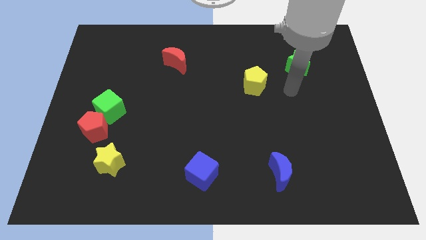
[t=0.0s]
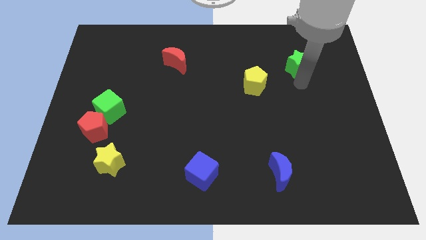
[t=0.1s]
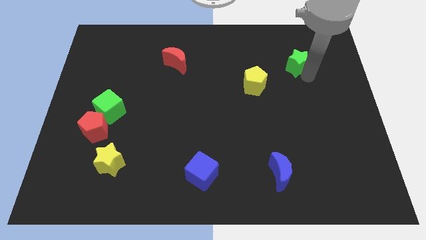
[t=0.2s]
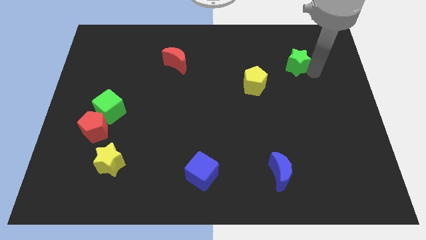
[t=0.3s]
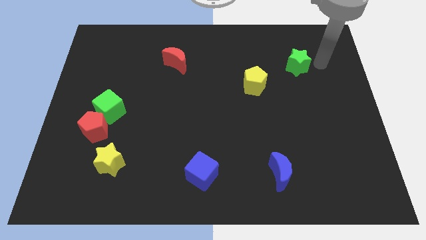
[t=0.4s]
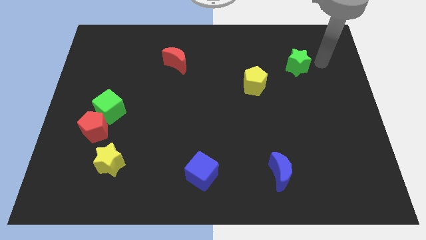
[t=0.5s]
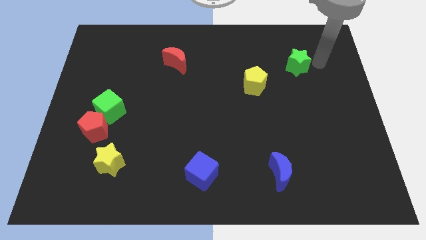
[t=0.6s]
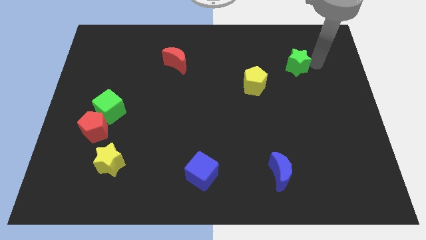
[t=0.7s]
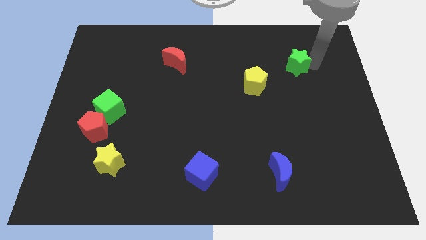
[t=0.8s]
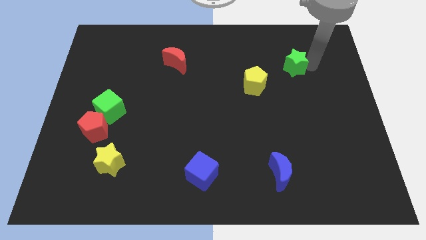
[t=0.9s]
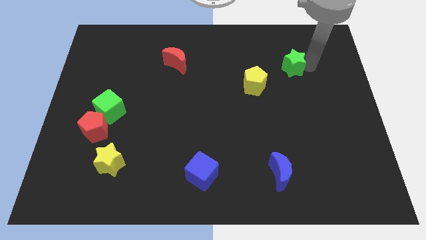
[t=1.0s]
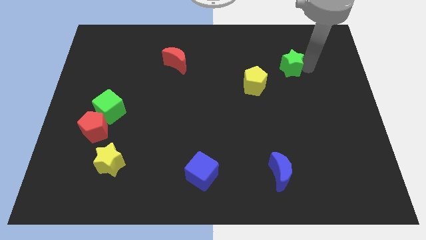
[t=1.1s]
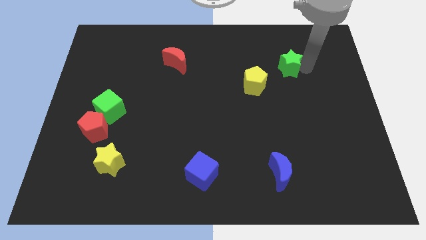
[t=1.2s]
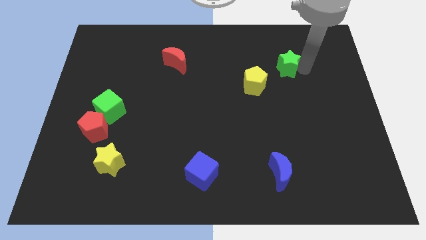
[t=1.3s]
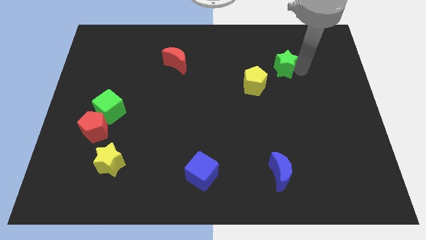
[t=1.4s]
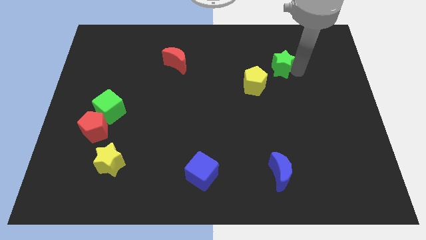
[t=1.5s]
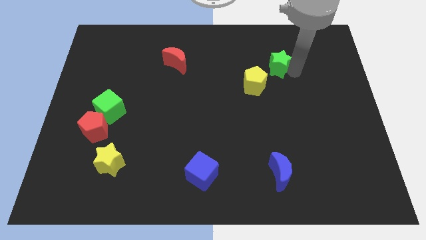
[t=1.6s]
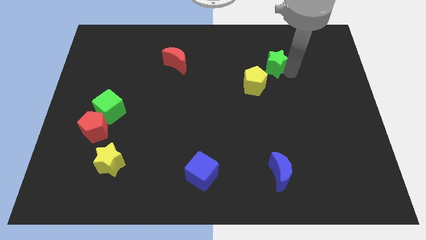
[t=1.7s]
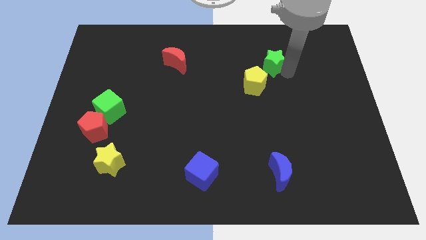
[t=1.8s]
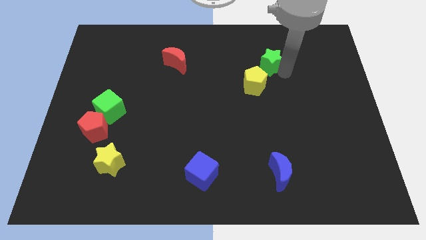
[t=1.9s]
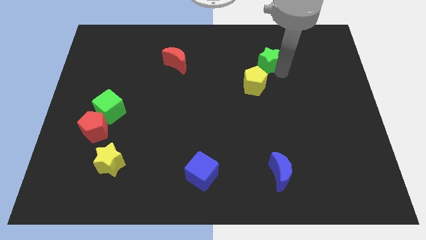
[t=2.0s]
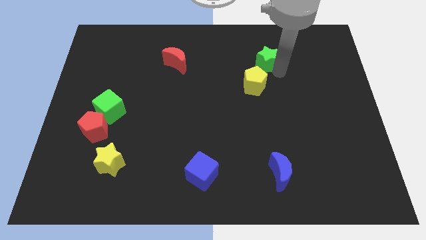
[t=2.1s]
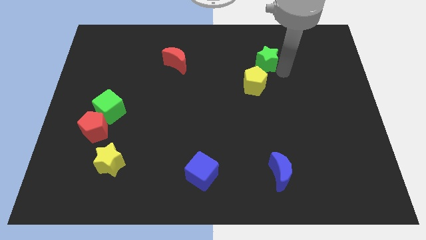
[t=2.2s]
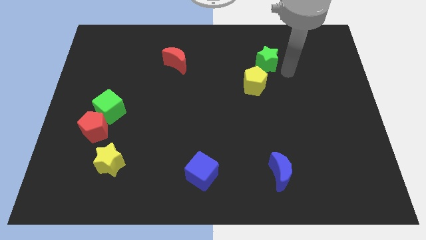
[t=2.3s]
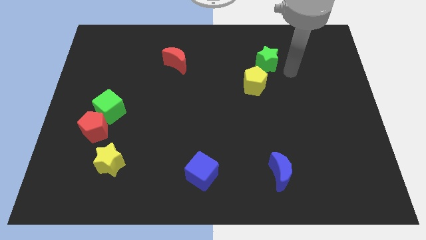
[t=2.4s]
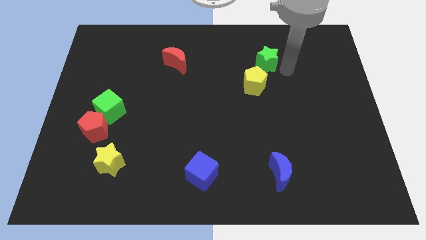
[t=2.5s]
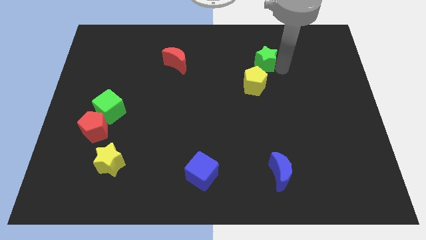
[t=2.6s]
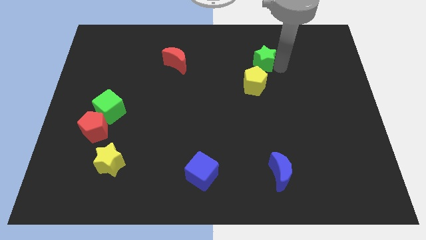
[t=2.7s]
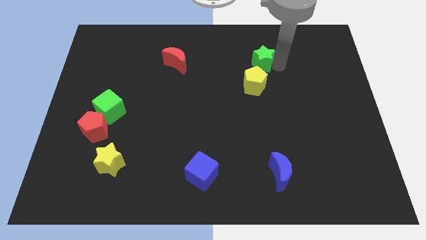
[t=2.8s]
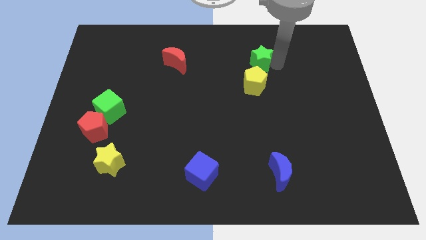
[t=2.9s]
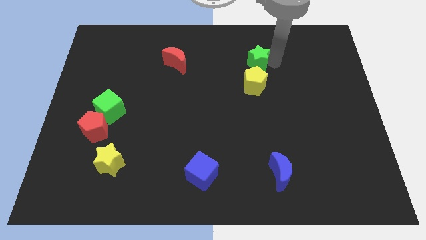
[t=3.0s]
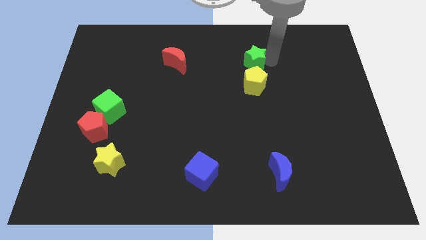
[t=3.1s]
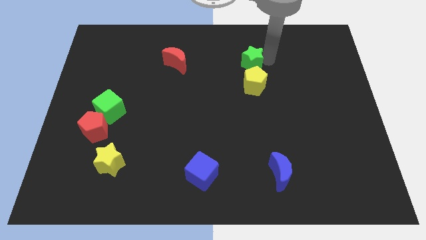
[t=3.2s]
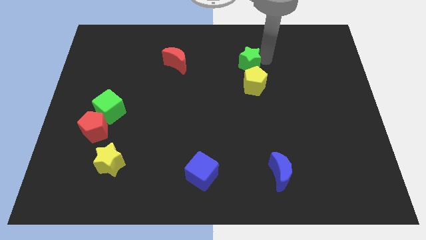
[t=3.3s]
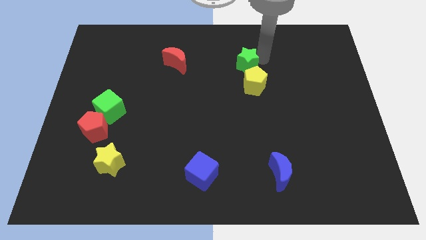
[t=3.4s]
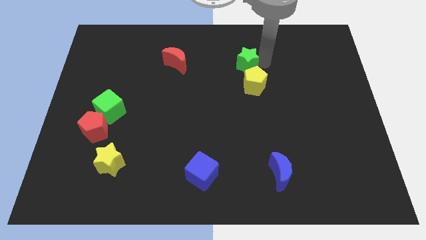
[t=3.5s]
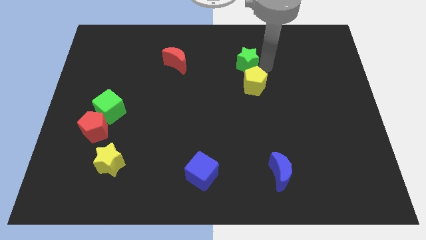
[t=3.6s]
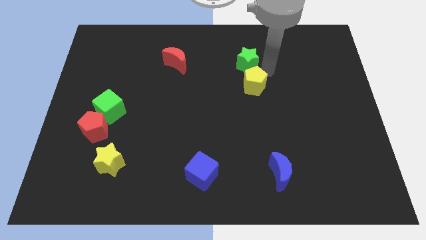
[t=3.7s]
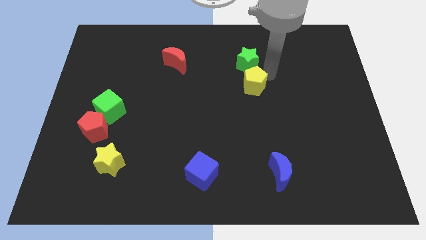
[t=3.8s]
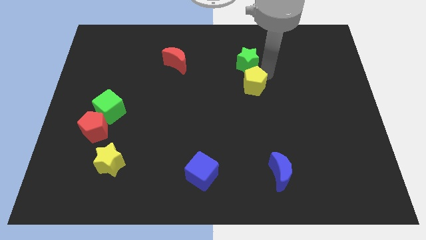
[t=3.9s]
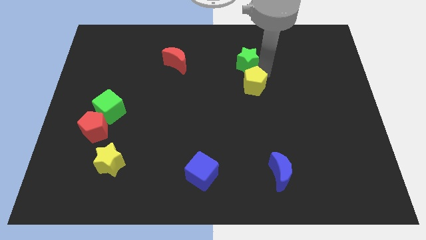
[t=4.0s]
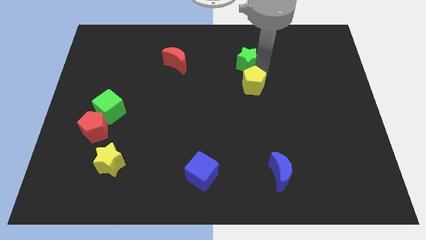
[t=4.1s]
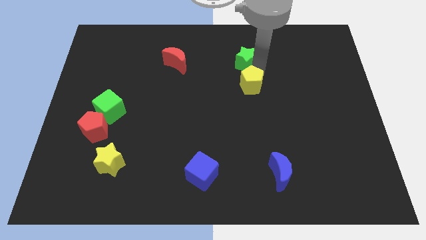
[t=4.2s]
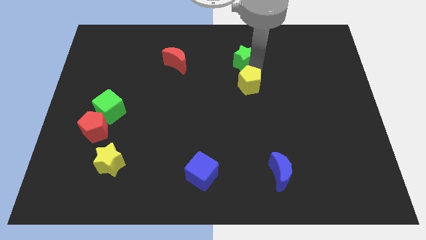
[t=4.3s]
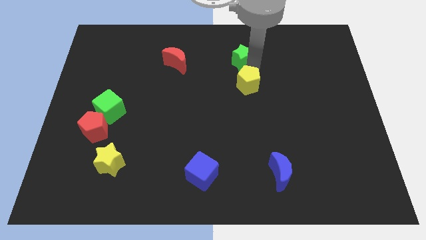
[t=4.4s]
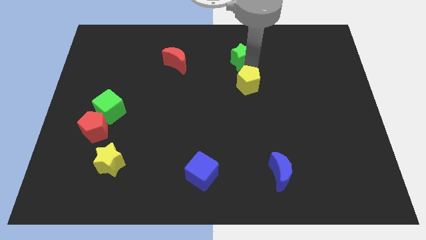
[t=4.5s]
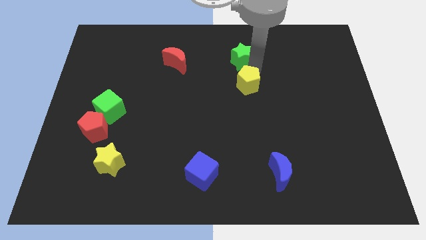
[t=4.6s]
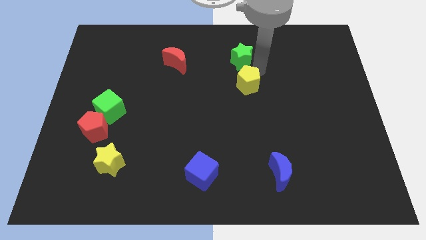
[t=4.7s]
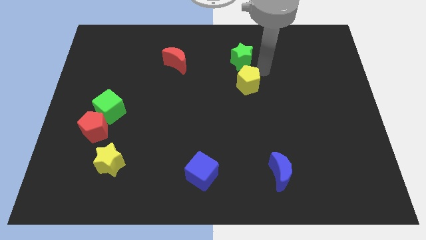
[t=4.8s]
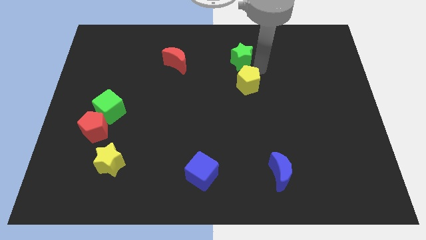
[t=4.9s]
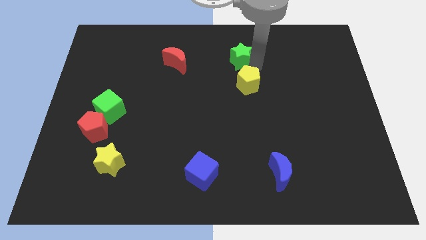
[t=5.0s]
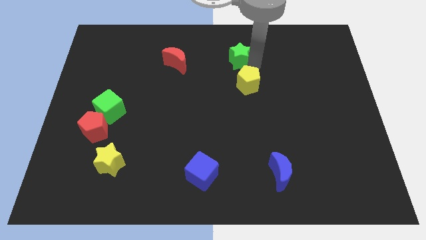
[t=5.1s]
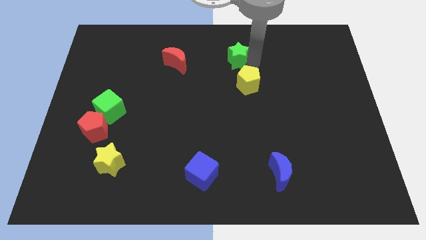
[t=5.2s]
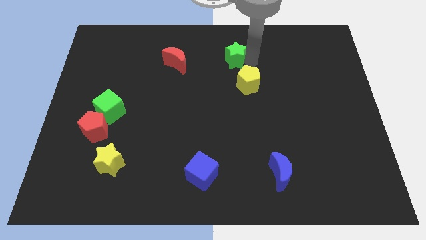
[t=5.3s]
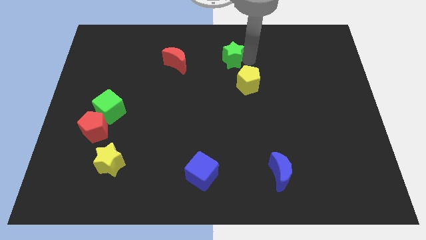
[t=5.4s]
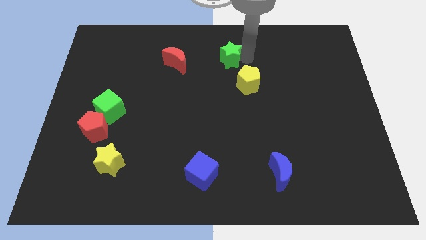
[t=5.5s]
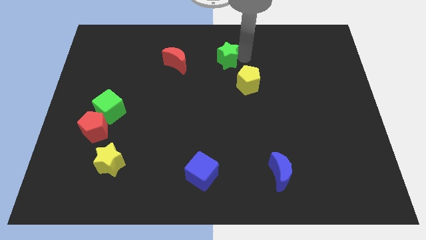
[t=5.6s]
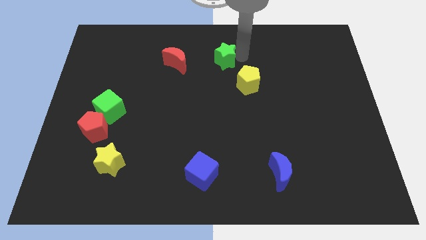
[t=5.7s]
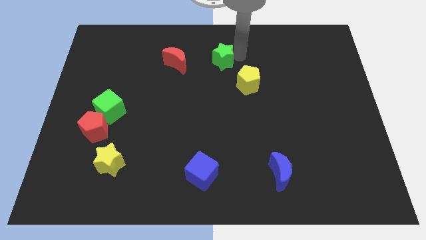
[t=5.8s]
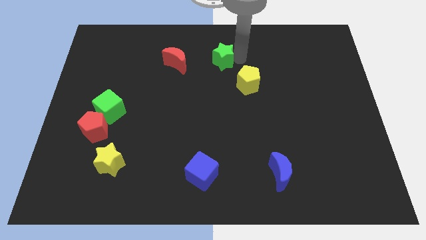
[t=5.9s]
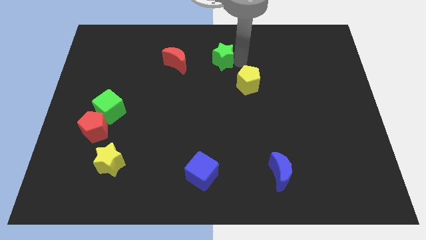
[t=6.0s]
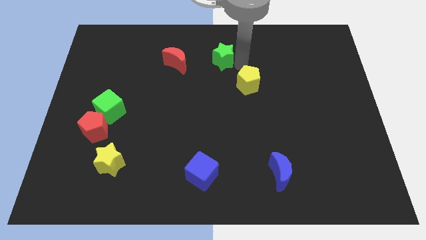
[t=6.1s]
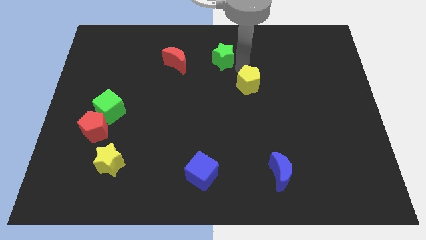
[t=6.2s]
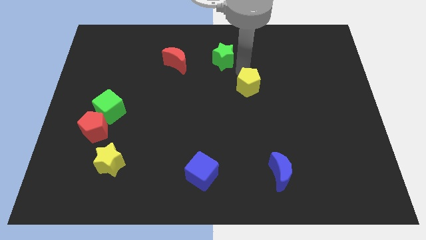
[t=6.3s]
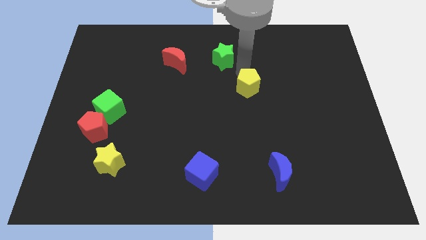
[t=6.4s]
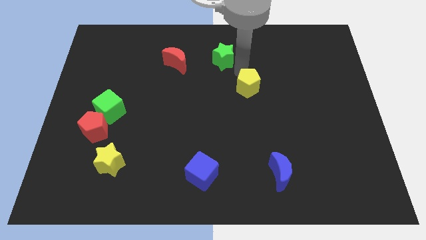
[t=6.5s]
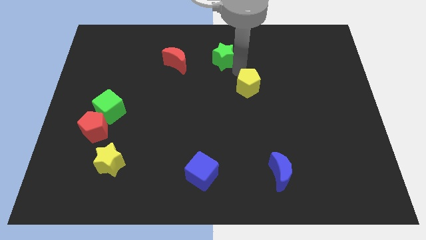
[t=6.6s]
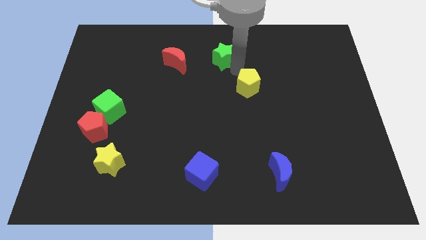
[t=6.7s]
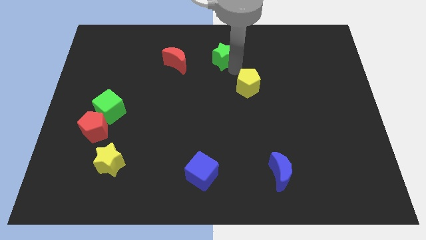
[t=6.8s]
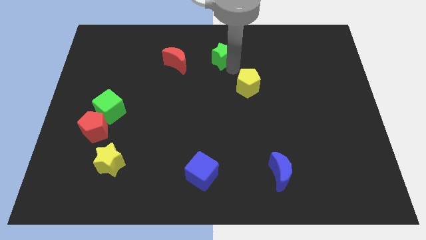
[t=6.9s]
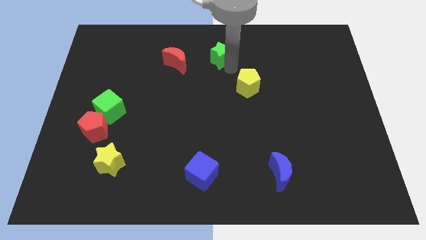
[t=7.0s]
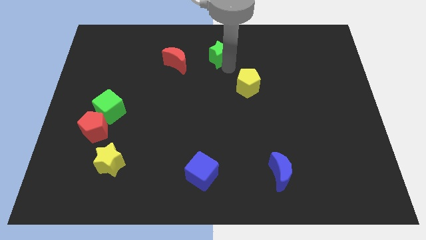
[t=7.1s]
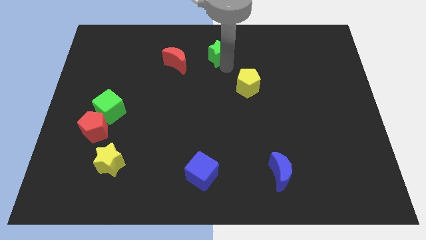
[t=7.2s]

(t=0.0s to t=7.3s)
slide the green star to the towards your base
